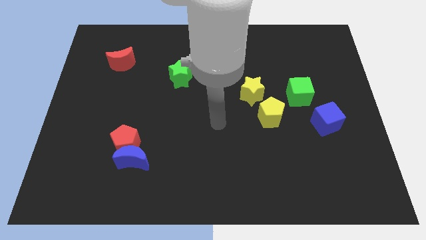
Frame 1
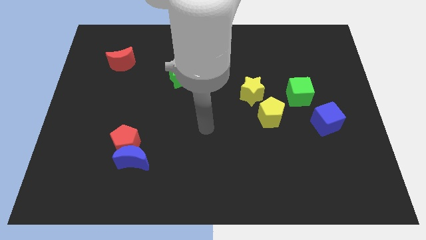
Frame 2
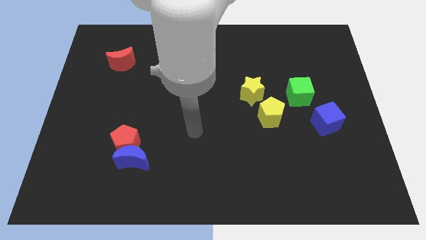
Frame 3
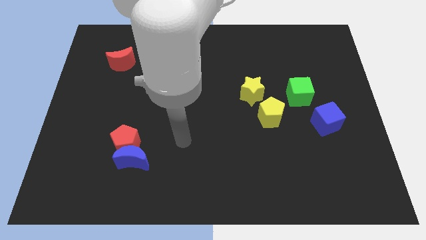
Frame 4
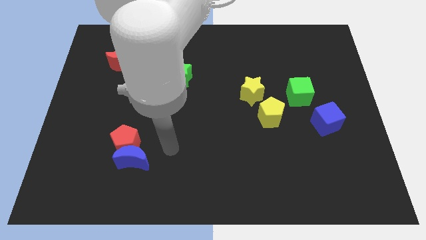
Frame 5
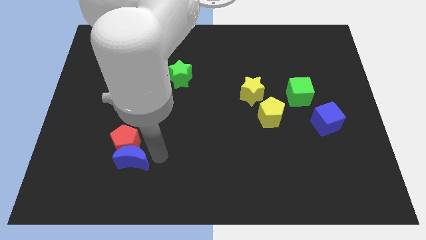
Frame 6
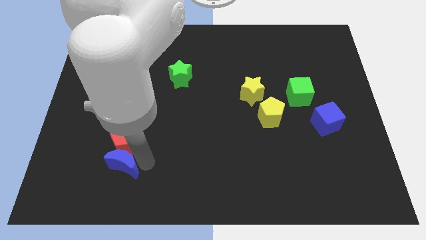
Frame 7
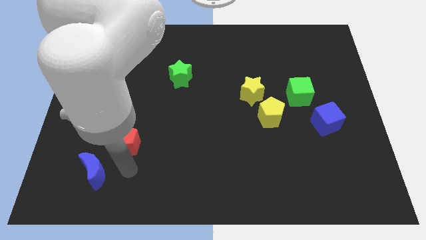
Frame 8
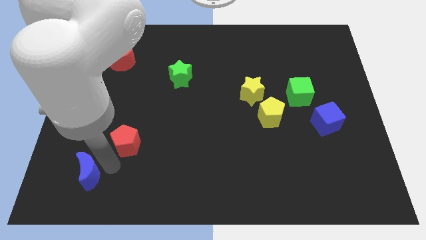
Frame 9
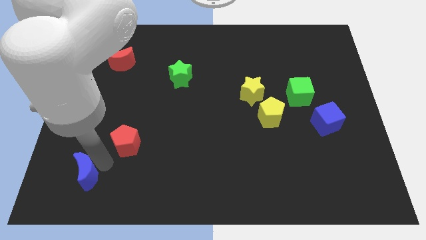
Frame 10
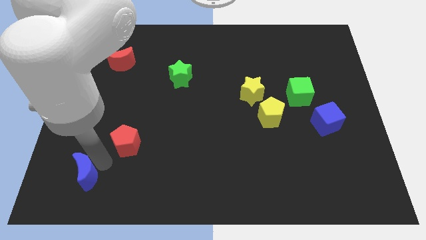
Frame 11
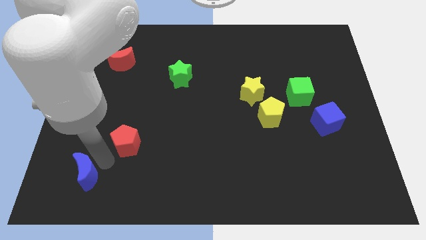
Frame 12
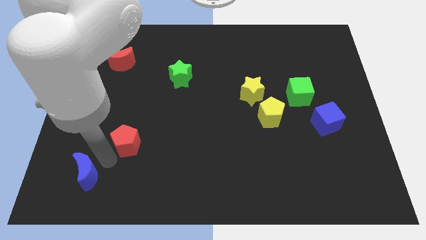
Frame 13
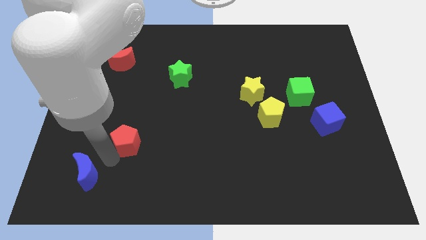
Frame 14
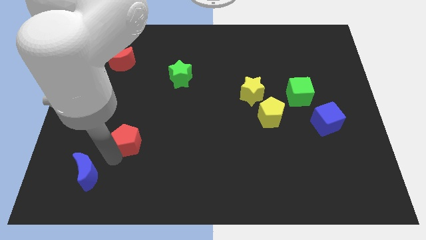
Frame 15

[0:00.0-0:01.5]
move the red pentagon away from the blue moon

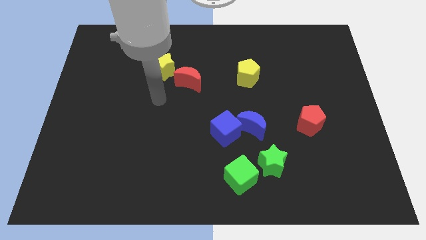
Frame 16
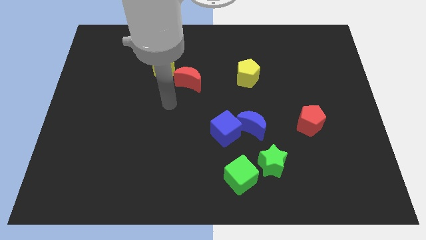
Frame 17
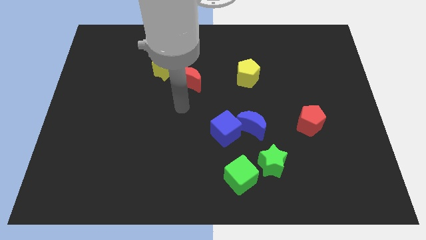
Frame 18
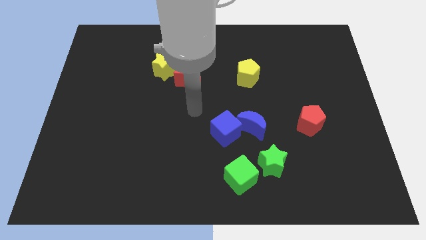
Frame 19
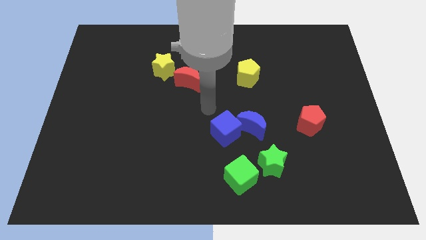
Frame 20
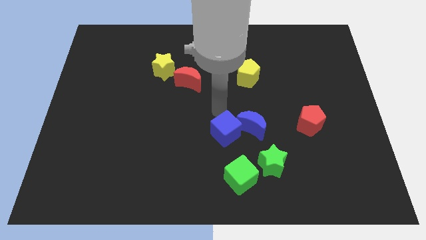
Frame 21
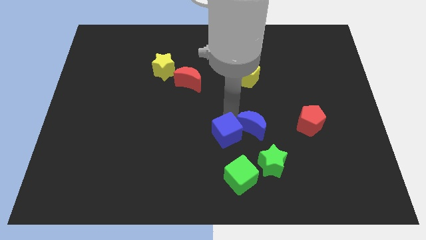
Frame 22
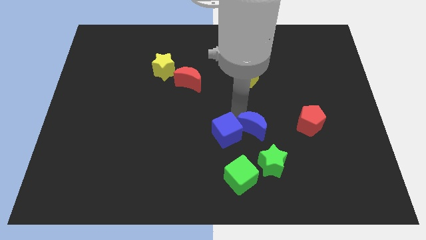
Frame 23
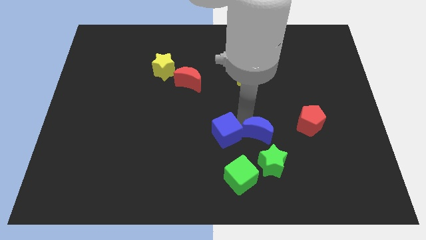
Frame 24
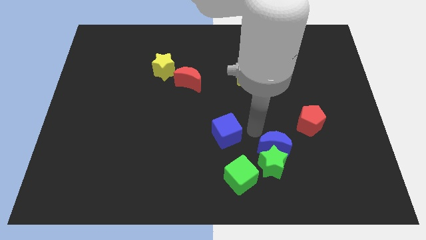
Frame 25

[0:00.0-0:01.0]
move the blue cube away from the blue moon

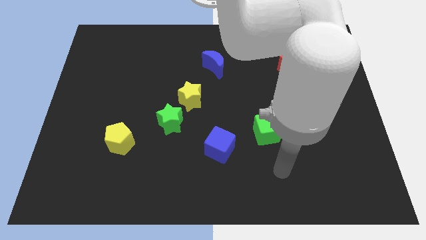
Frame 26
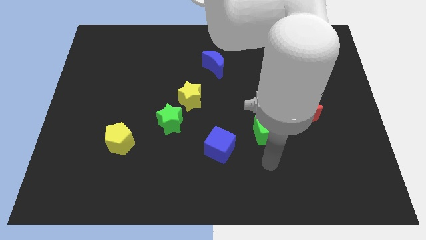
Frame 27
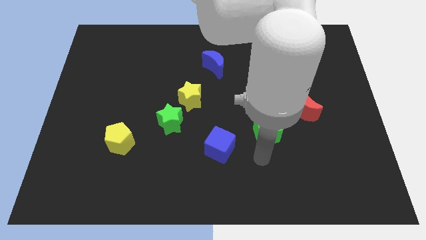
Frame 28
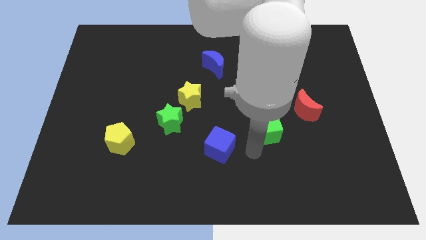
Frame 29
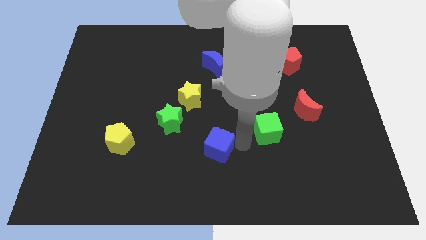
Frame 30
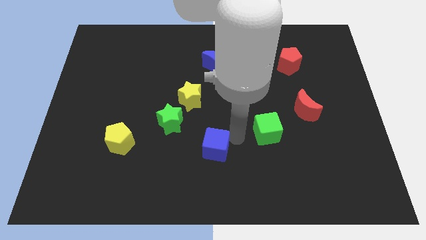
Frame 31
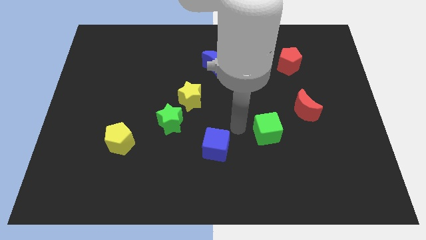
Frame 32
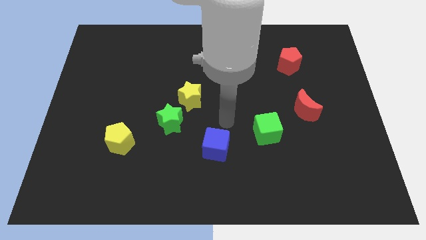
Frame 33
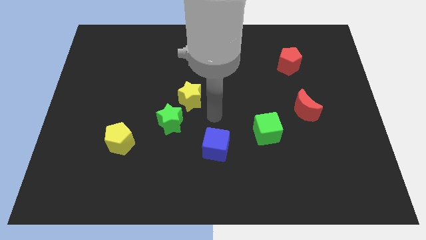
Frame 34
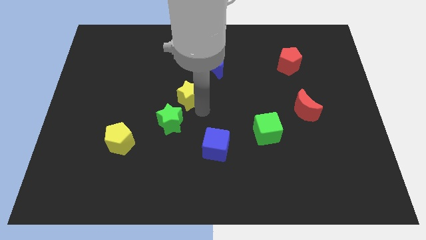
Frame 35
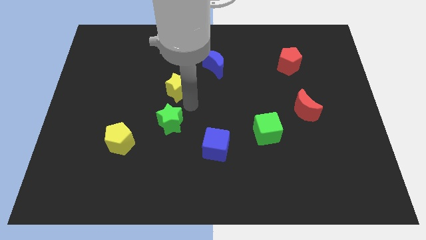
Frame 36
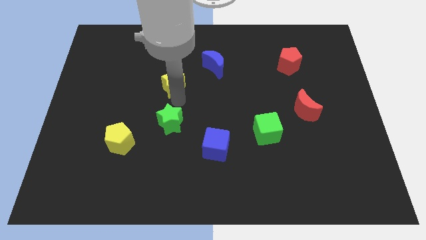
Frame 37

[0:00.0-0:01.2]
separate the green star from the yellow star

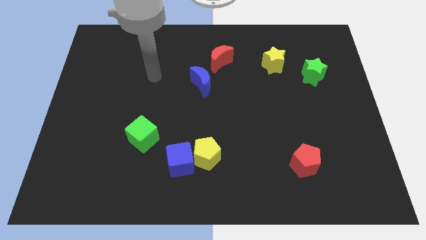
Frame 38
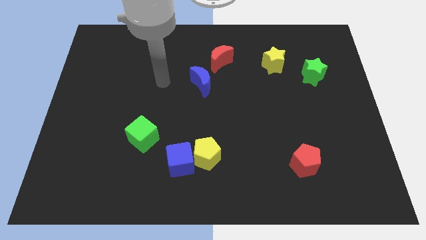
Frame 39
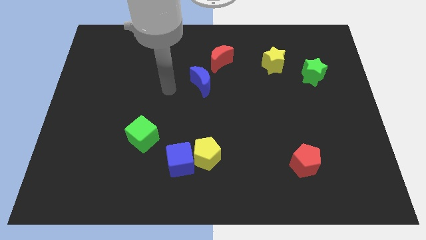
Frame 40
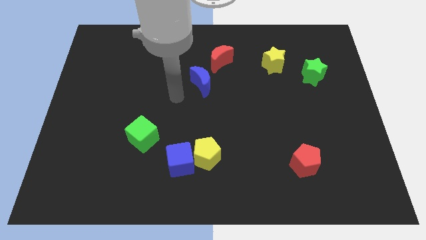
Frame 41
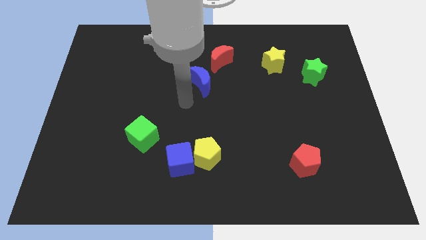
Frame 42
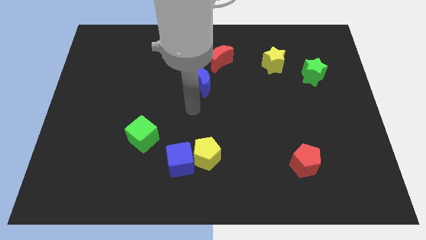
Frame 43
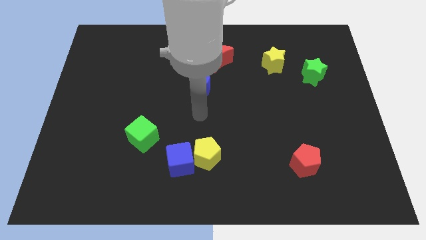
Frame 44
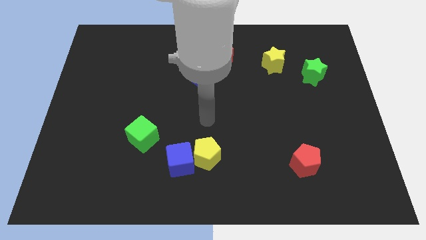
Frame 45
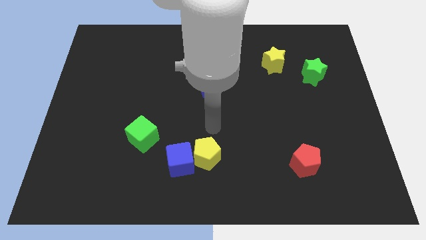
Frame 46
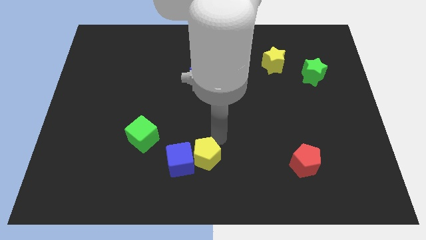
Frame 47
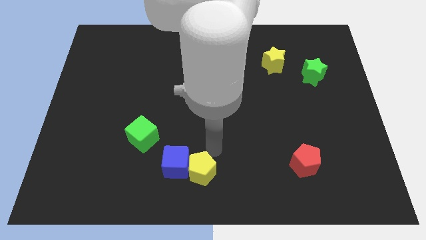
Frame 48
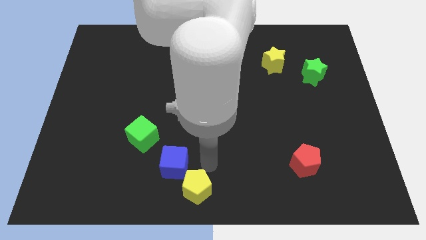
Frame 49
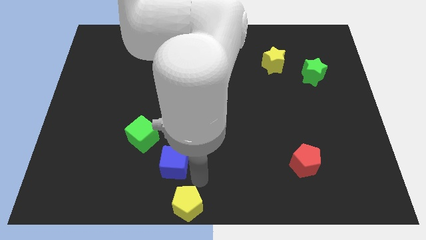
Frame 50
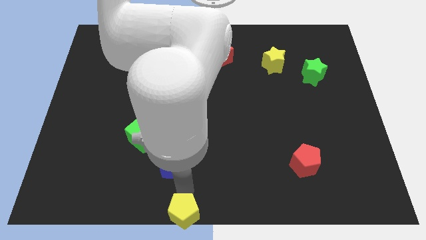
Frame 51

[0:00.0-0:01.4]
separate the blue cube from the yellow pentagon

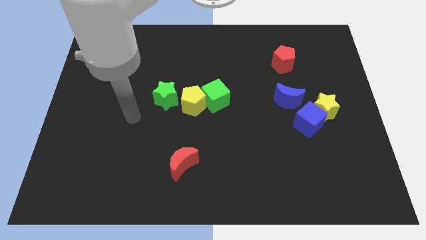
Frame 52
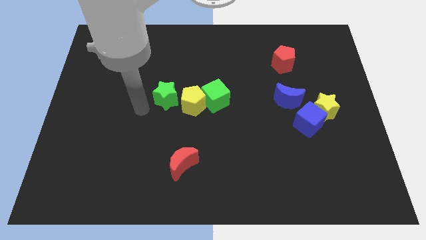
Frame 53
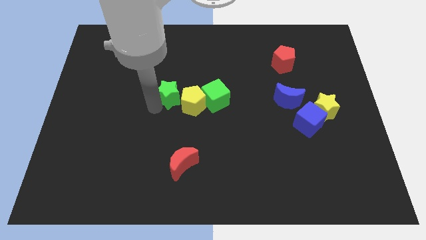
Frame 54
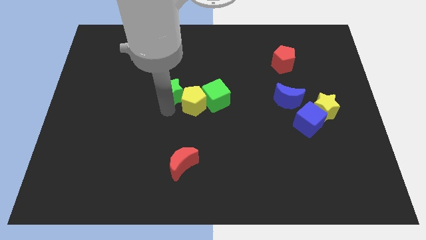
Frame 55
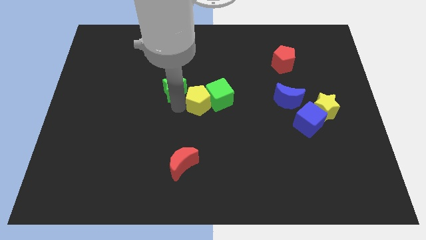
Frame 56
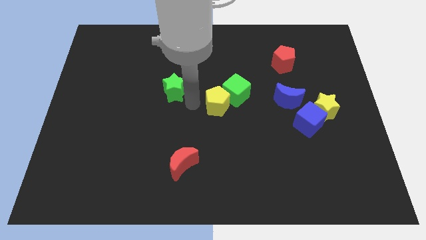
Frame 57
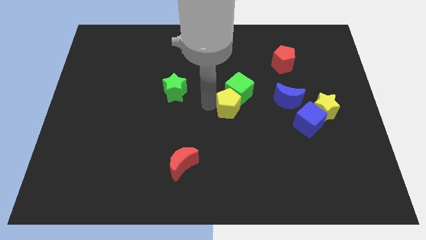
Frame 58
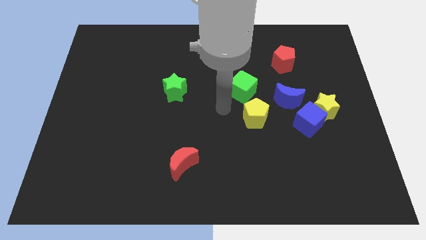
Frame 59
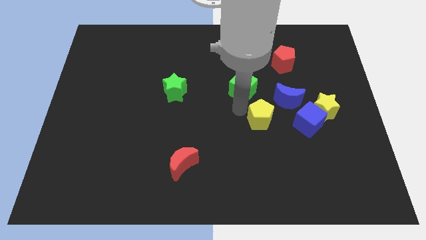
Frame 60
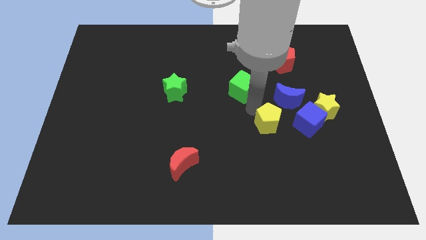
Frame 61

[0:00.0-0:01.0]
separate the green cube from the yellow pentagon

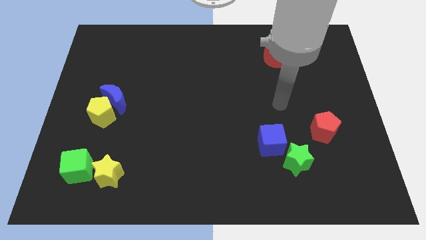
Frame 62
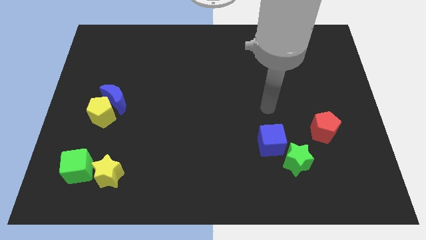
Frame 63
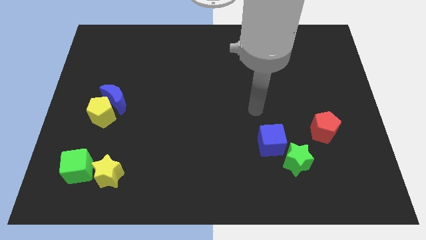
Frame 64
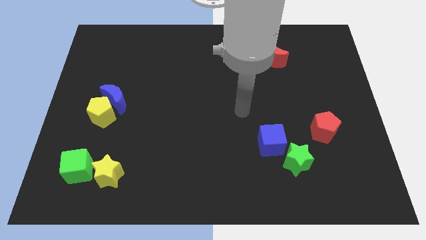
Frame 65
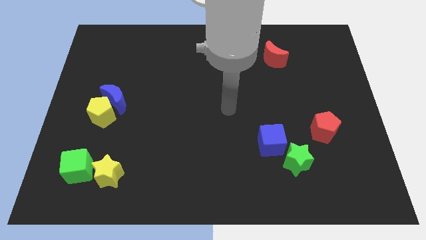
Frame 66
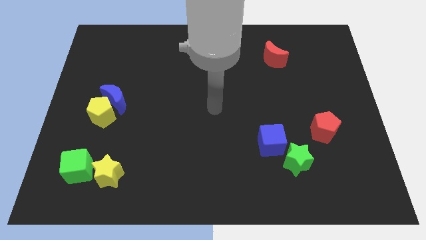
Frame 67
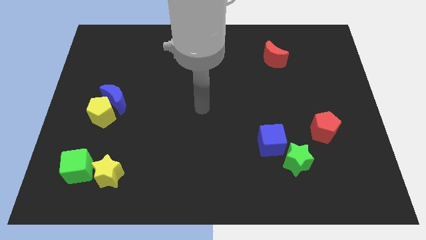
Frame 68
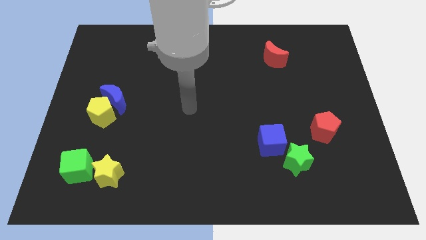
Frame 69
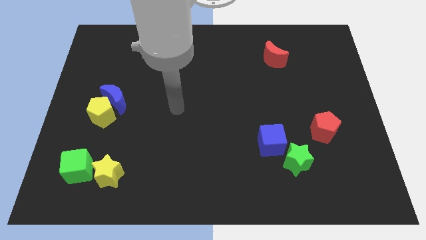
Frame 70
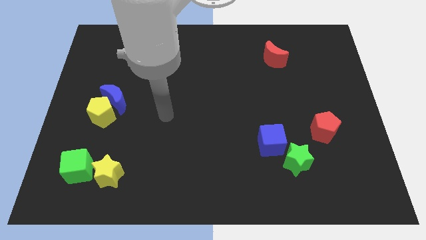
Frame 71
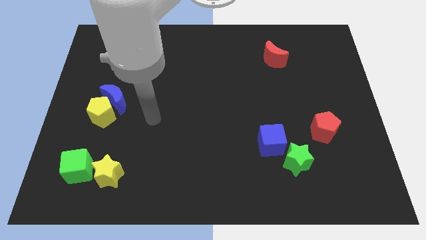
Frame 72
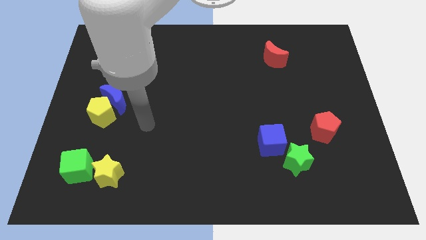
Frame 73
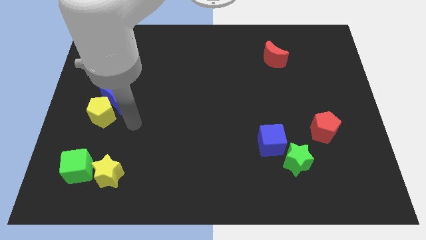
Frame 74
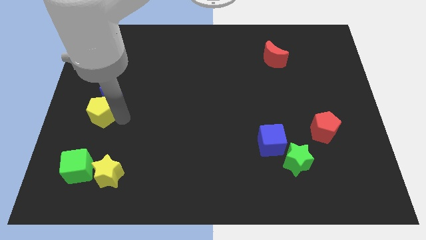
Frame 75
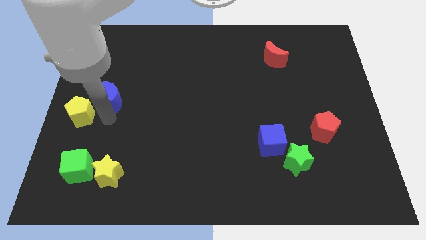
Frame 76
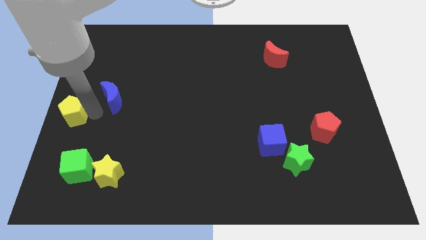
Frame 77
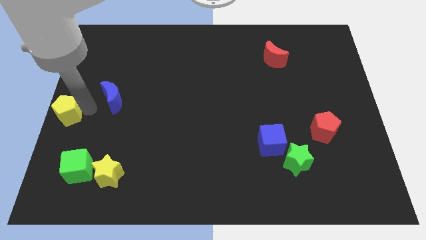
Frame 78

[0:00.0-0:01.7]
separate the blue moon from the yellow pentagon

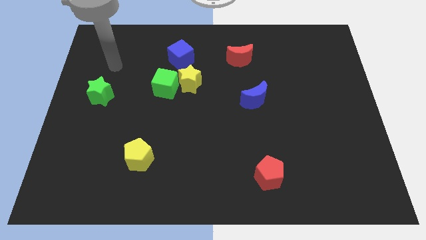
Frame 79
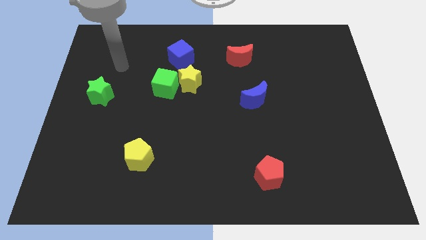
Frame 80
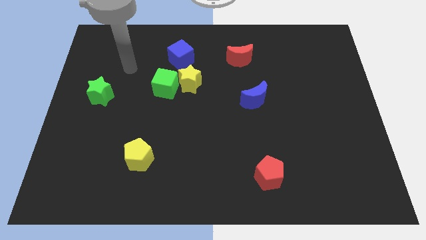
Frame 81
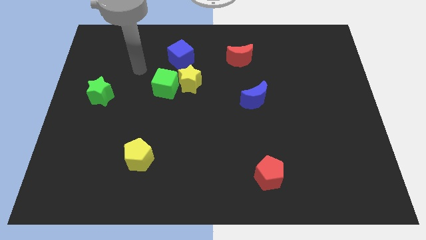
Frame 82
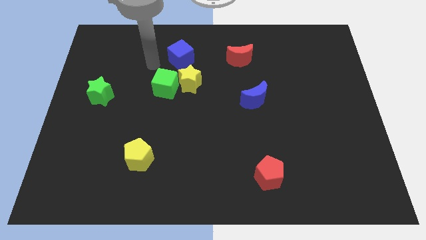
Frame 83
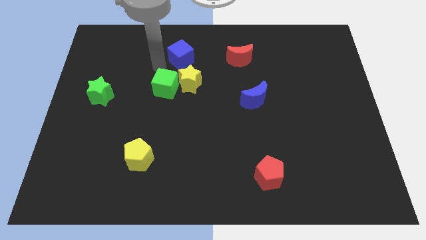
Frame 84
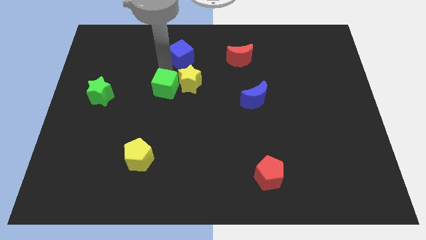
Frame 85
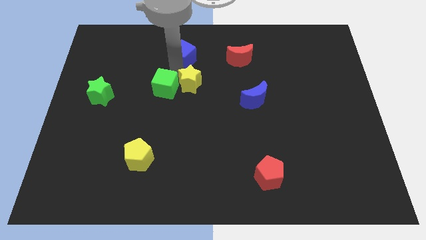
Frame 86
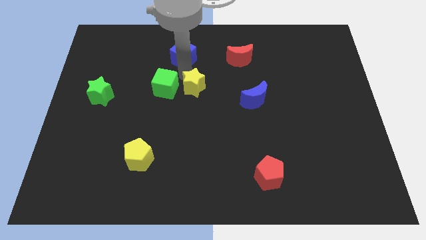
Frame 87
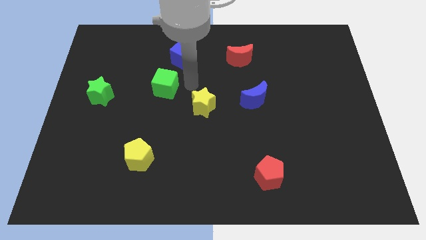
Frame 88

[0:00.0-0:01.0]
move the green cube away from the yellow star

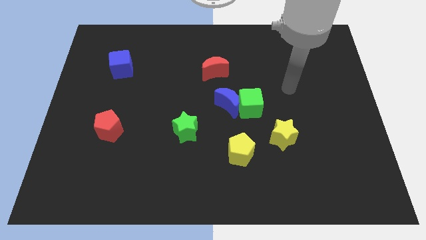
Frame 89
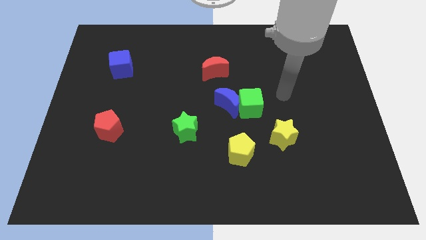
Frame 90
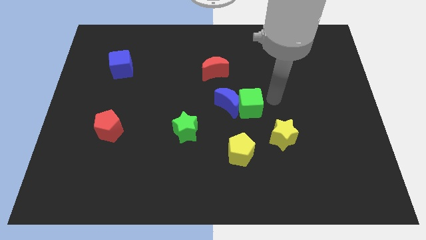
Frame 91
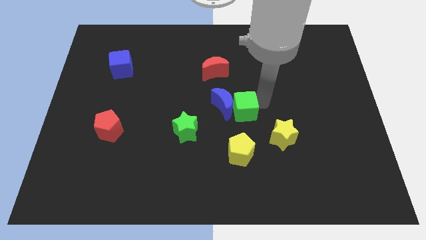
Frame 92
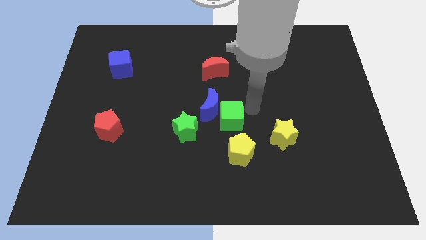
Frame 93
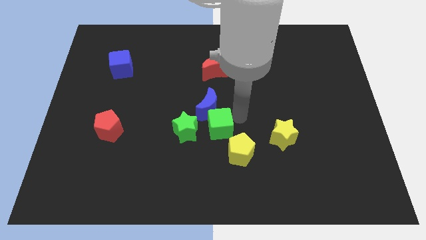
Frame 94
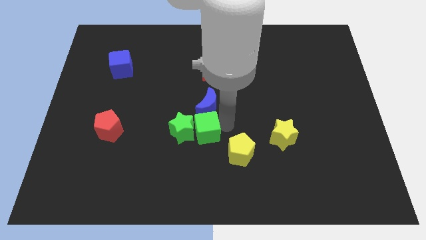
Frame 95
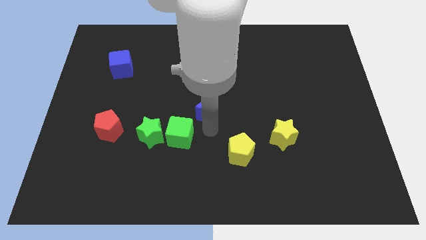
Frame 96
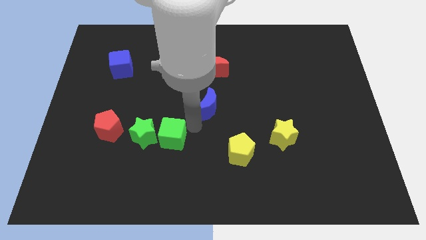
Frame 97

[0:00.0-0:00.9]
pull the blue moon apart from the green cube
